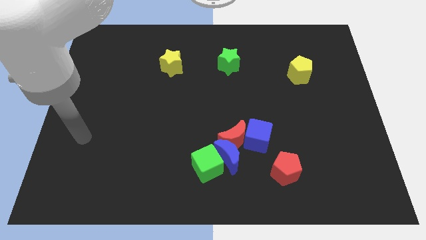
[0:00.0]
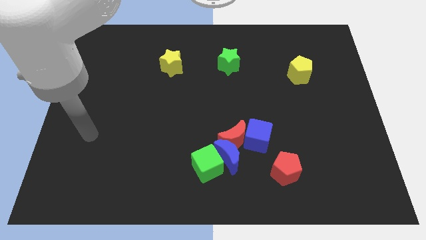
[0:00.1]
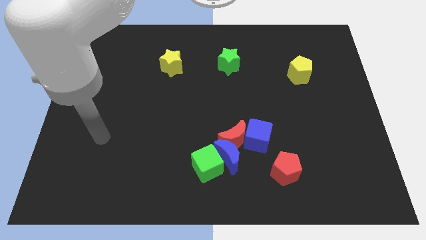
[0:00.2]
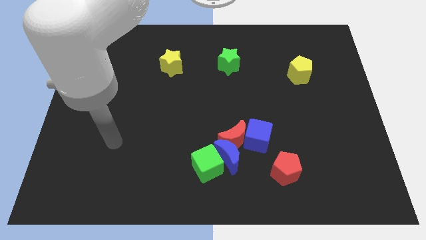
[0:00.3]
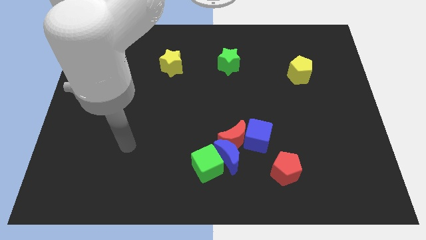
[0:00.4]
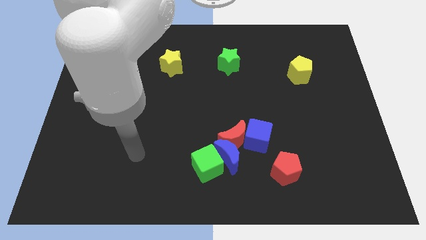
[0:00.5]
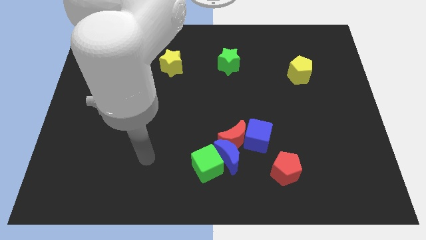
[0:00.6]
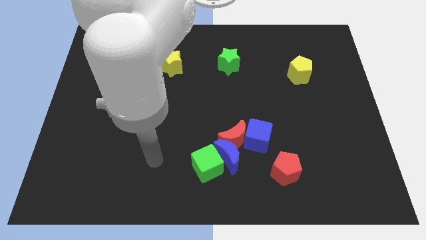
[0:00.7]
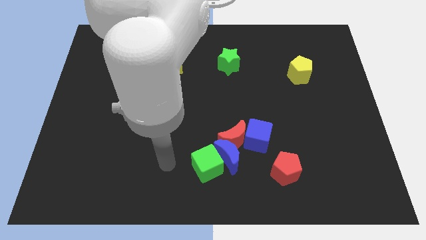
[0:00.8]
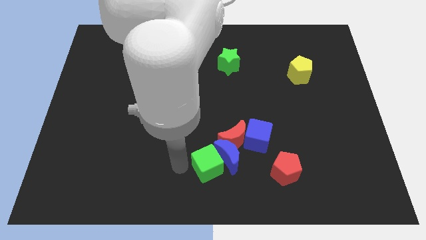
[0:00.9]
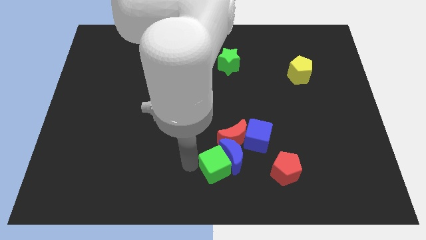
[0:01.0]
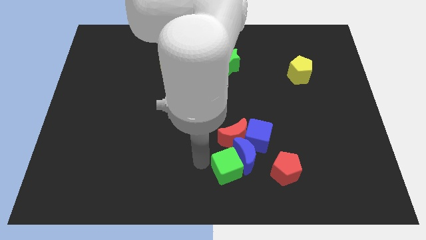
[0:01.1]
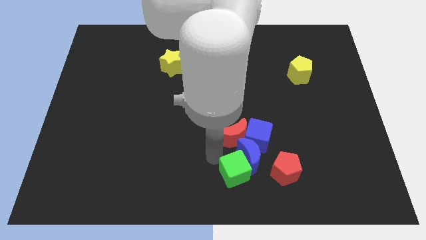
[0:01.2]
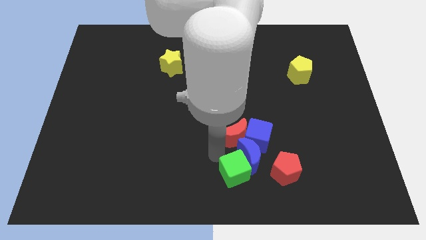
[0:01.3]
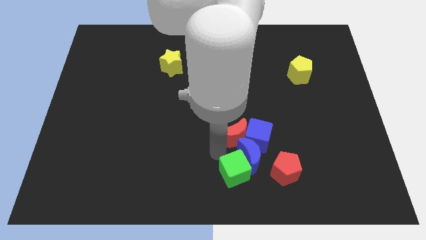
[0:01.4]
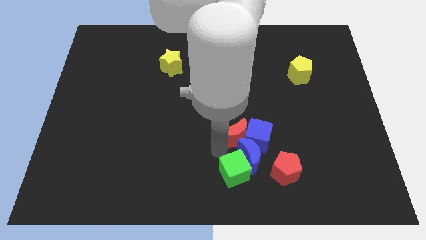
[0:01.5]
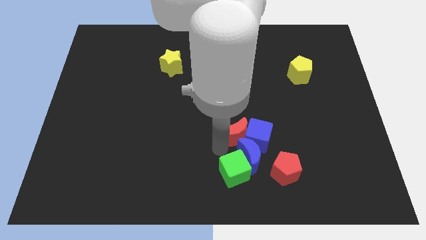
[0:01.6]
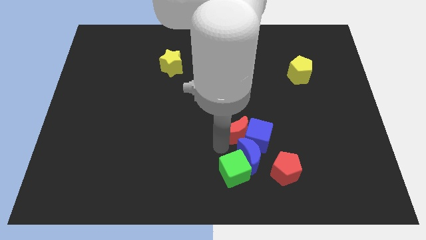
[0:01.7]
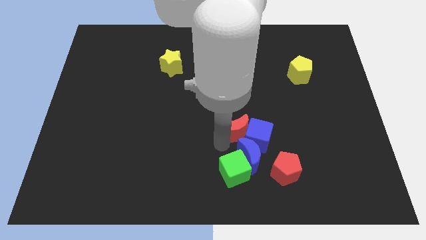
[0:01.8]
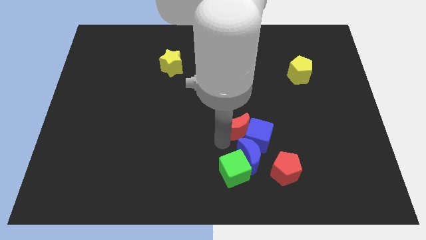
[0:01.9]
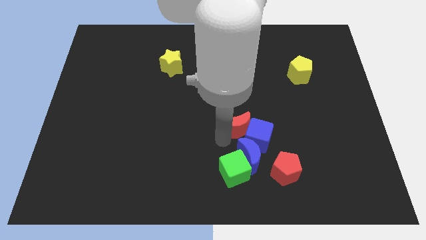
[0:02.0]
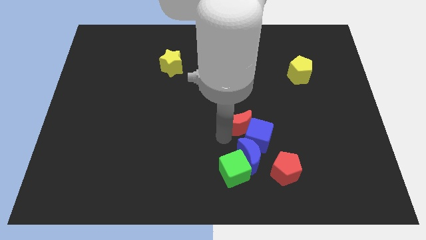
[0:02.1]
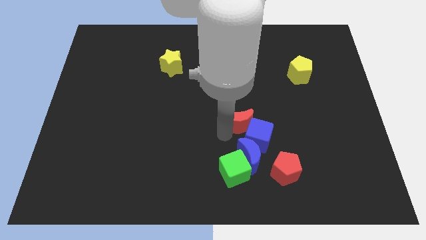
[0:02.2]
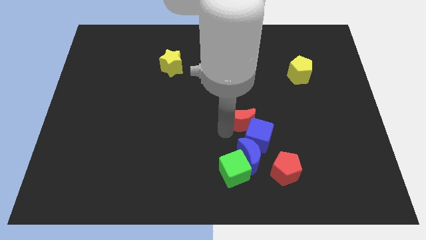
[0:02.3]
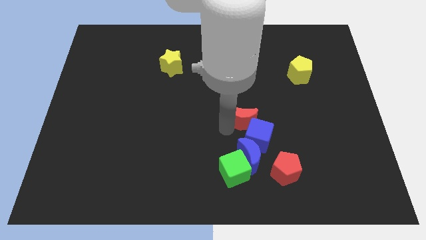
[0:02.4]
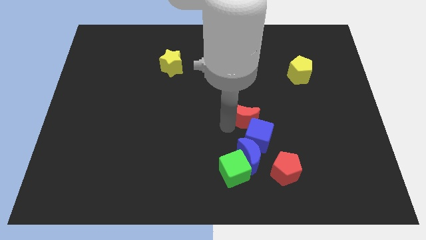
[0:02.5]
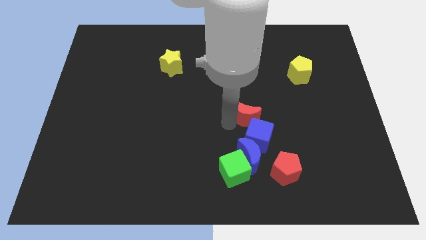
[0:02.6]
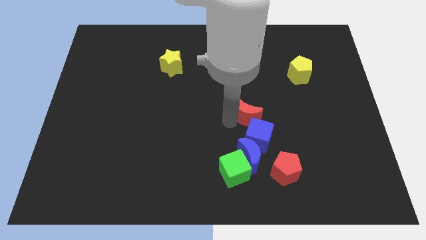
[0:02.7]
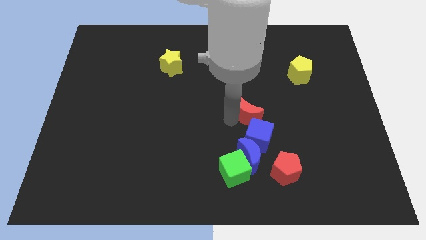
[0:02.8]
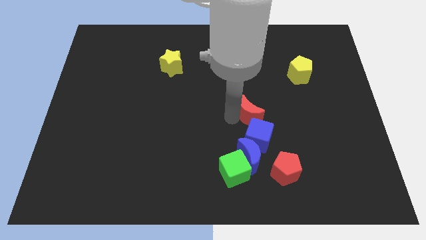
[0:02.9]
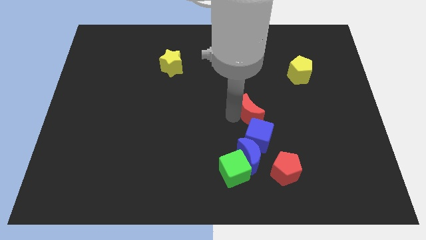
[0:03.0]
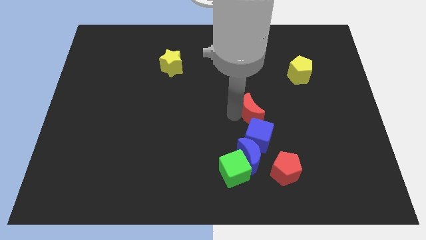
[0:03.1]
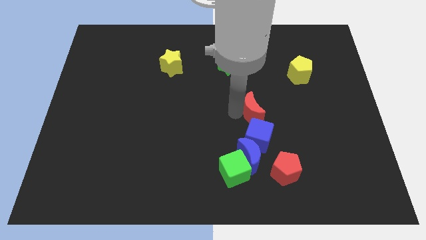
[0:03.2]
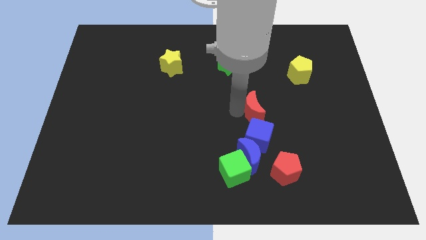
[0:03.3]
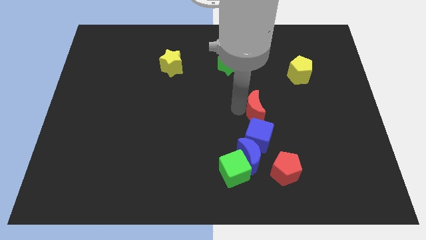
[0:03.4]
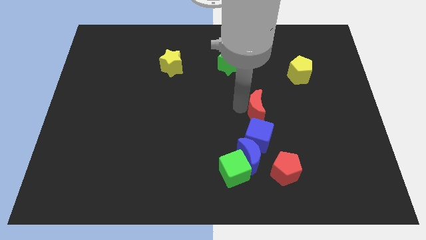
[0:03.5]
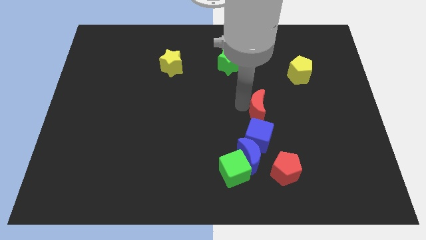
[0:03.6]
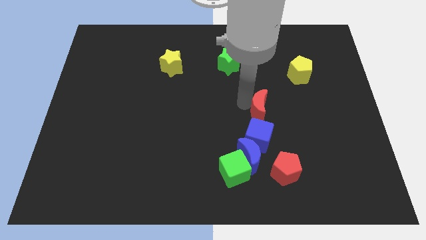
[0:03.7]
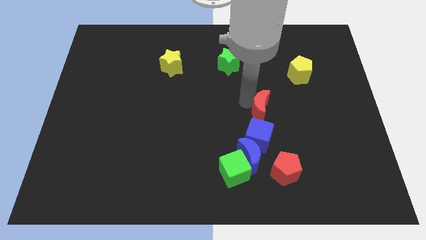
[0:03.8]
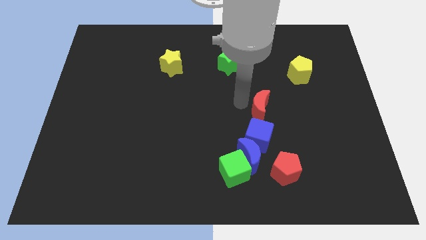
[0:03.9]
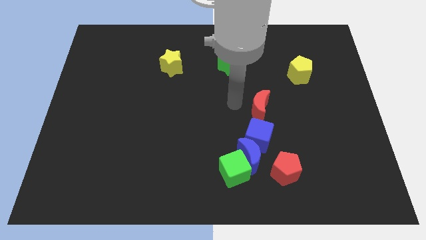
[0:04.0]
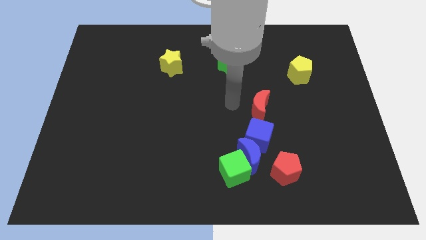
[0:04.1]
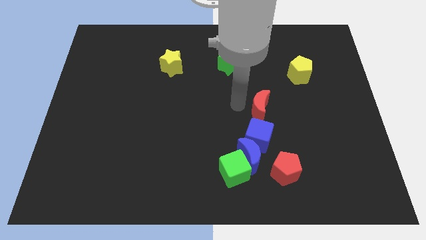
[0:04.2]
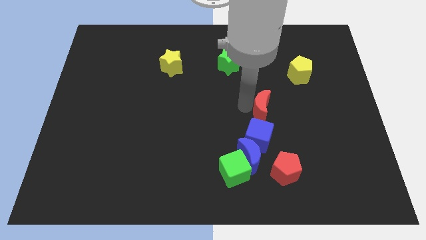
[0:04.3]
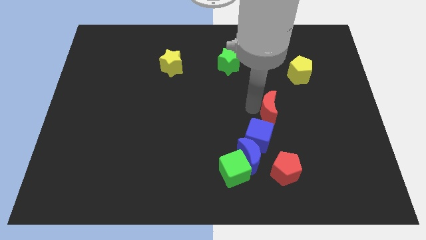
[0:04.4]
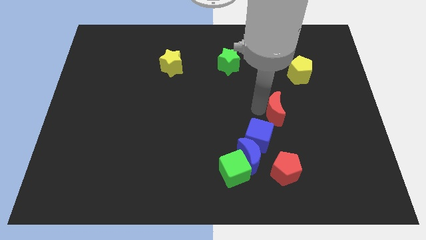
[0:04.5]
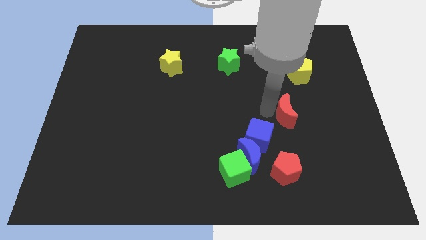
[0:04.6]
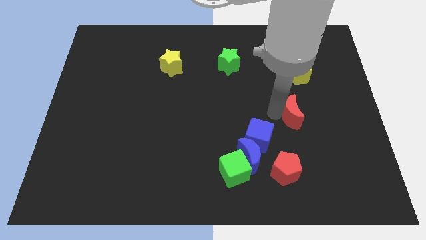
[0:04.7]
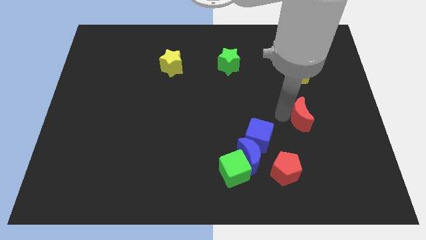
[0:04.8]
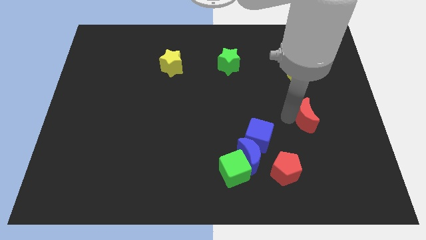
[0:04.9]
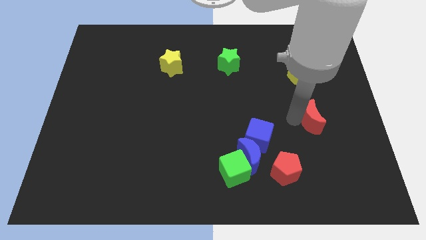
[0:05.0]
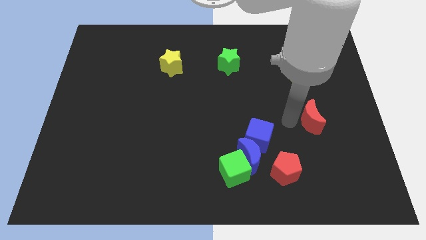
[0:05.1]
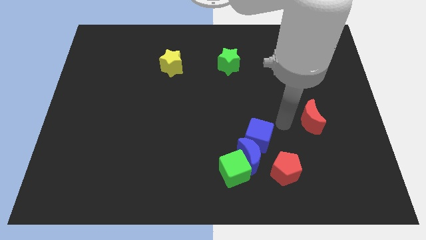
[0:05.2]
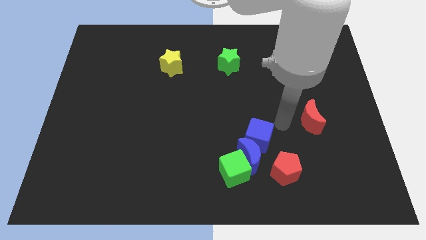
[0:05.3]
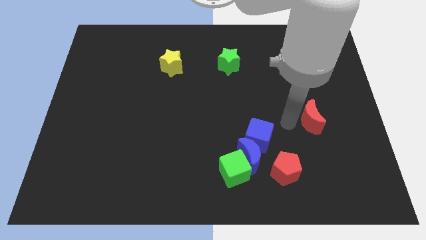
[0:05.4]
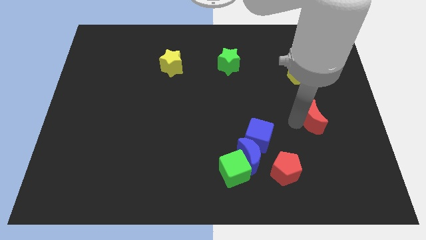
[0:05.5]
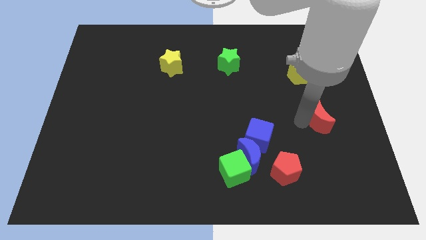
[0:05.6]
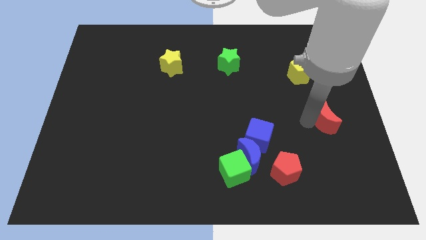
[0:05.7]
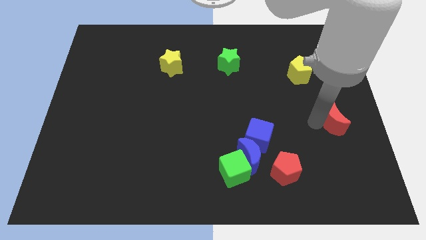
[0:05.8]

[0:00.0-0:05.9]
slide the red moon to the right side of the board

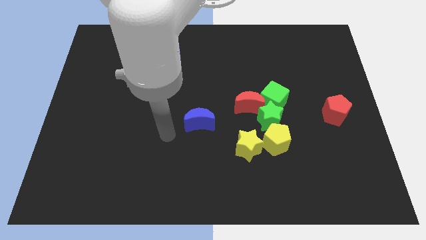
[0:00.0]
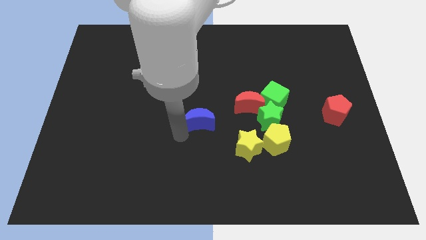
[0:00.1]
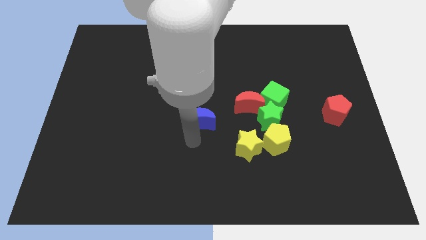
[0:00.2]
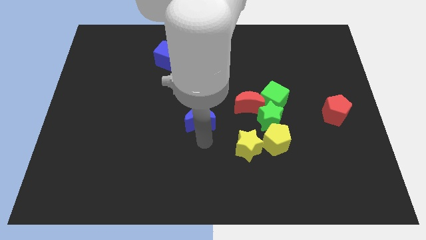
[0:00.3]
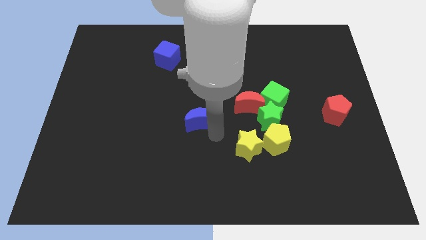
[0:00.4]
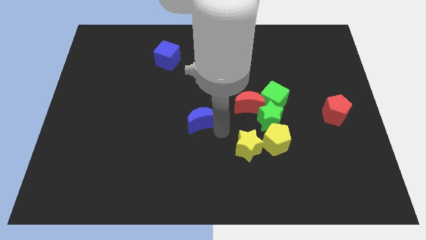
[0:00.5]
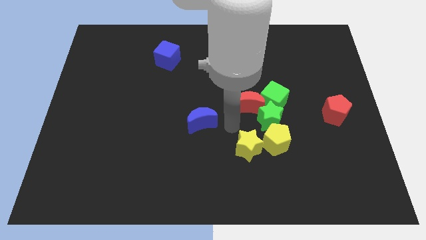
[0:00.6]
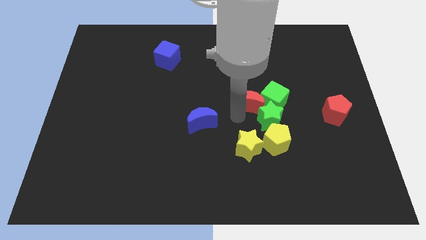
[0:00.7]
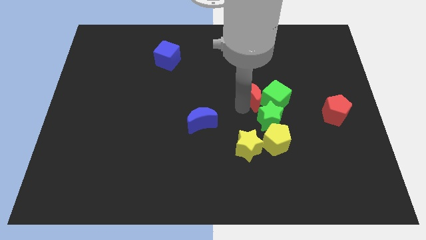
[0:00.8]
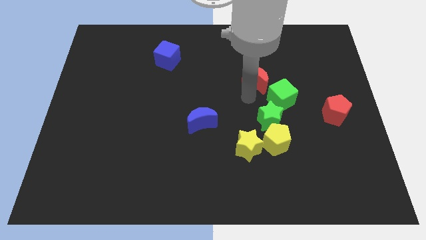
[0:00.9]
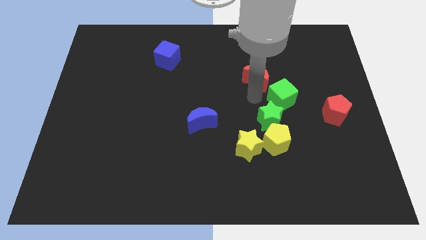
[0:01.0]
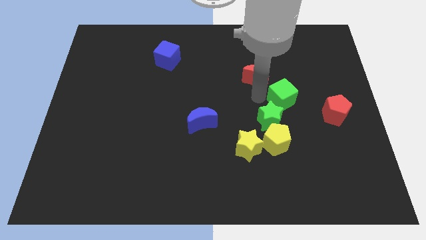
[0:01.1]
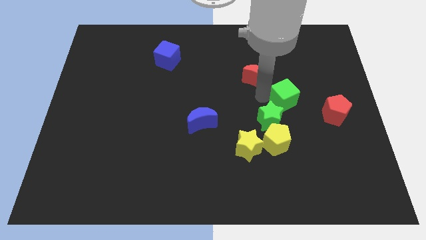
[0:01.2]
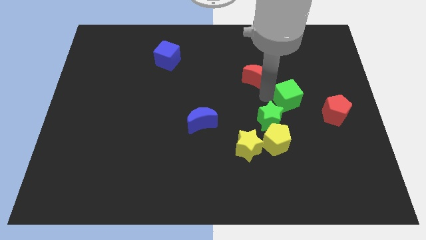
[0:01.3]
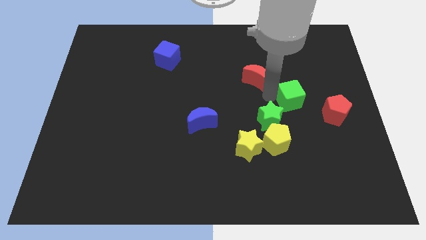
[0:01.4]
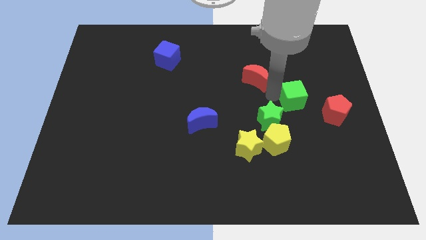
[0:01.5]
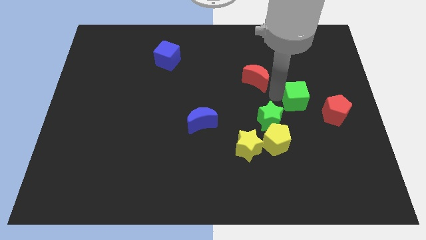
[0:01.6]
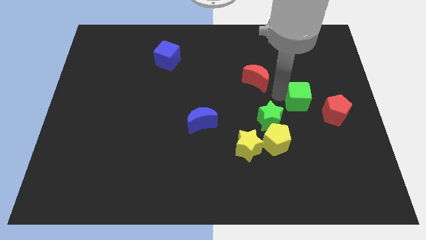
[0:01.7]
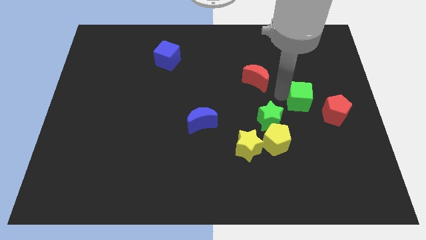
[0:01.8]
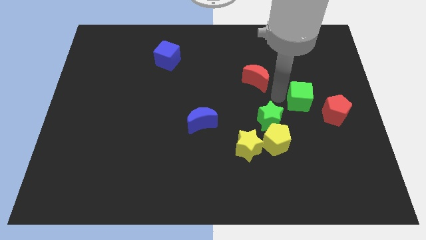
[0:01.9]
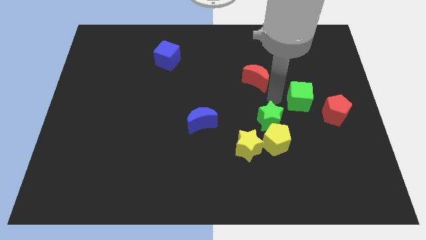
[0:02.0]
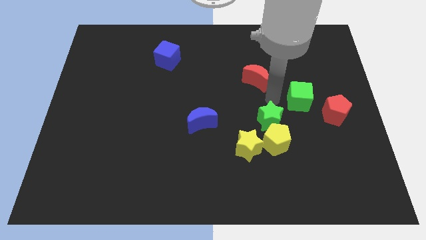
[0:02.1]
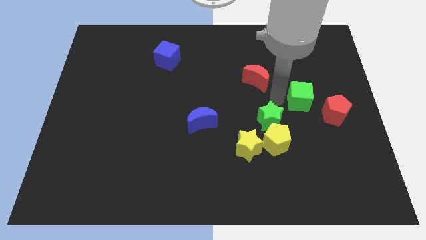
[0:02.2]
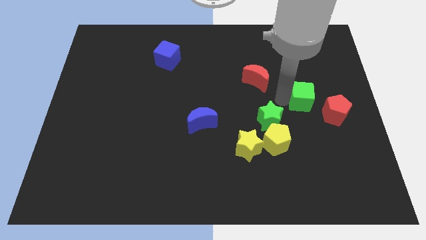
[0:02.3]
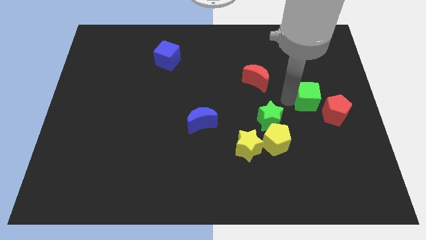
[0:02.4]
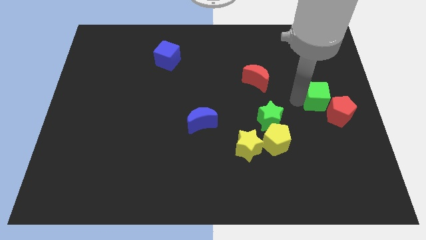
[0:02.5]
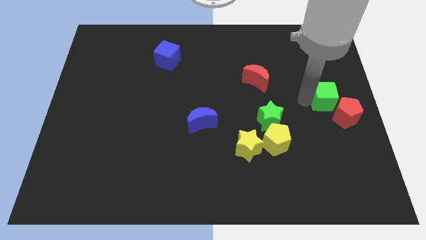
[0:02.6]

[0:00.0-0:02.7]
move the green cube to the center right
